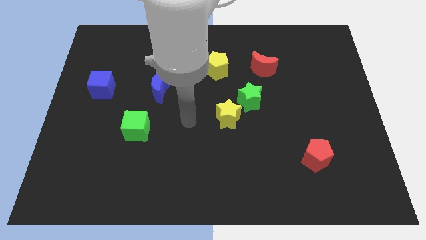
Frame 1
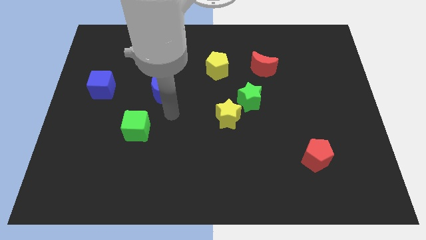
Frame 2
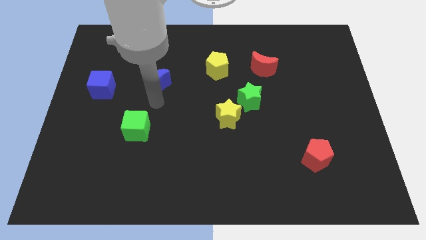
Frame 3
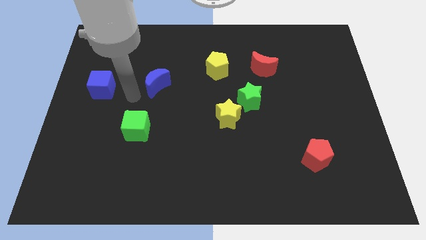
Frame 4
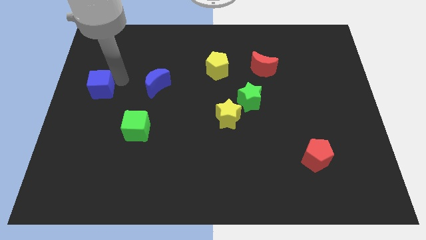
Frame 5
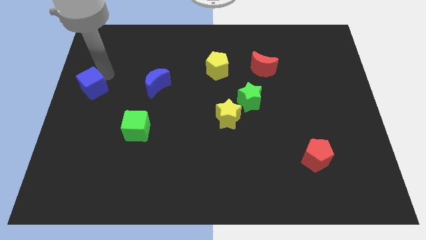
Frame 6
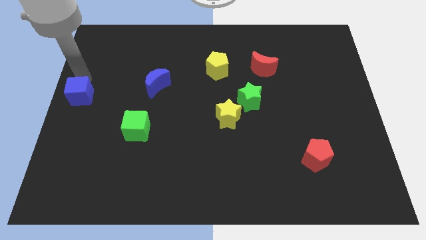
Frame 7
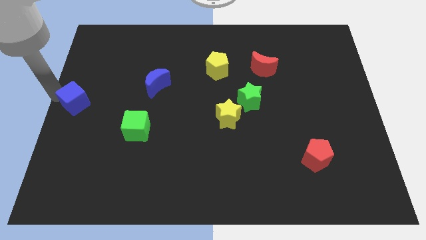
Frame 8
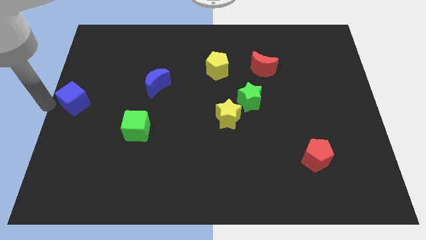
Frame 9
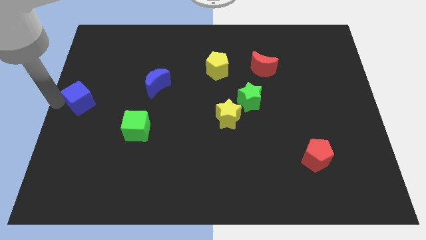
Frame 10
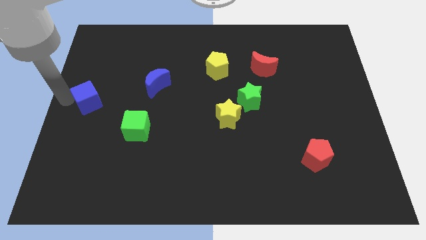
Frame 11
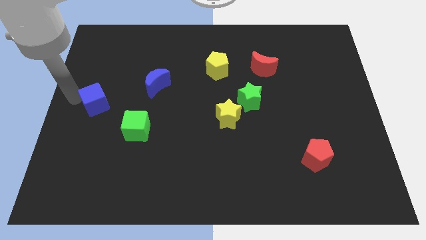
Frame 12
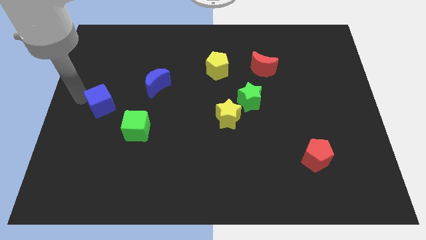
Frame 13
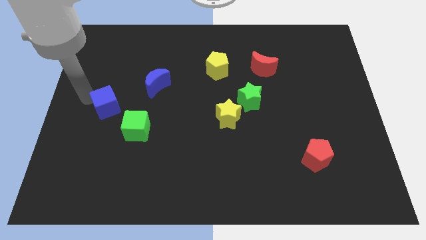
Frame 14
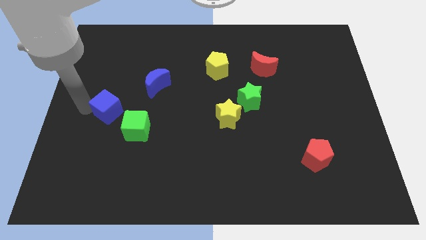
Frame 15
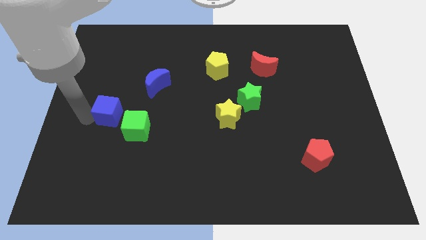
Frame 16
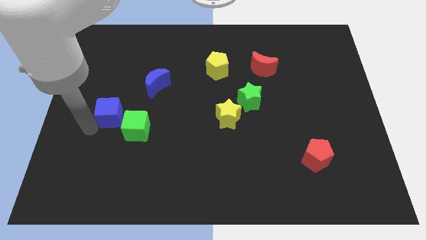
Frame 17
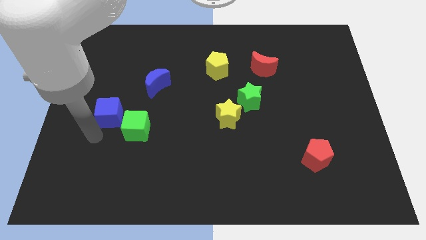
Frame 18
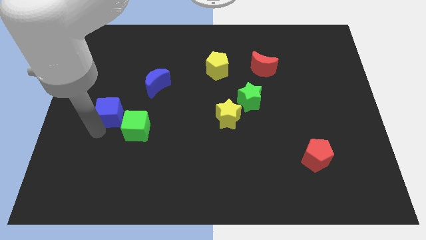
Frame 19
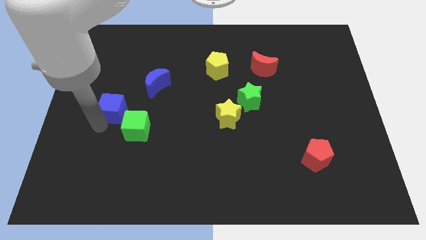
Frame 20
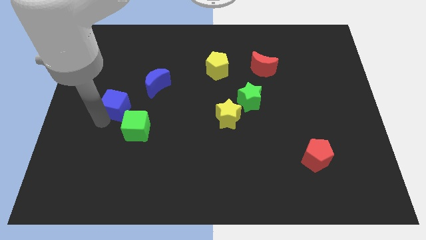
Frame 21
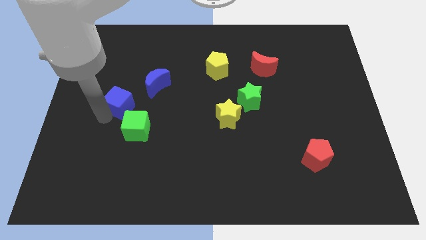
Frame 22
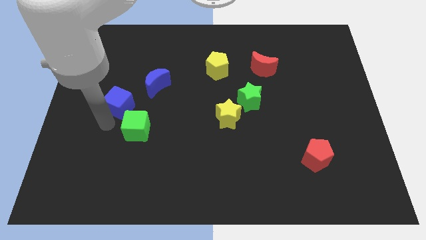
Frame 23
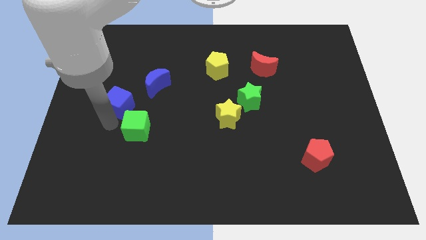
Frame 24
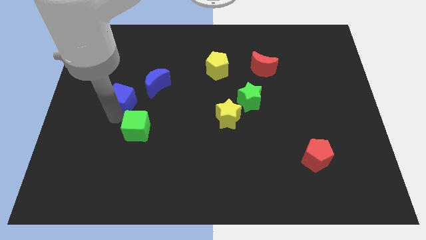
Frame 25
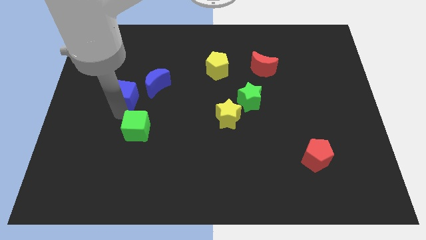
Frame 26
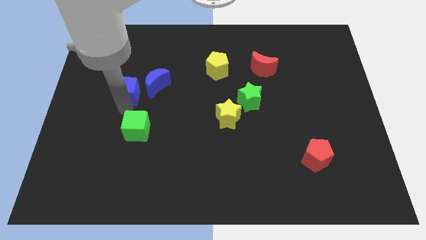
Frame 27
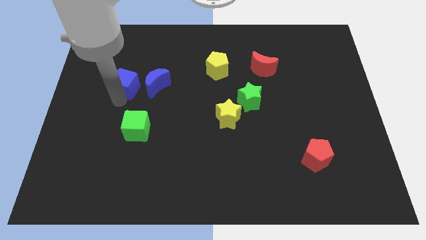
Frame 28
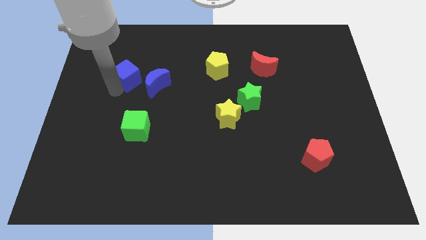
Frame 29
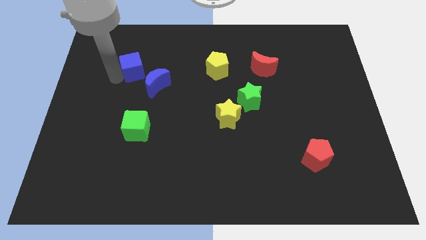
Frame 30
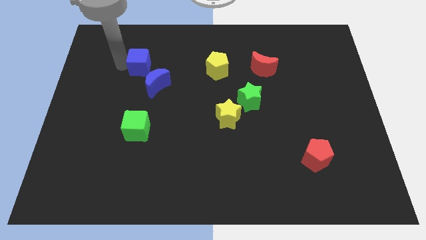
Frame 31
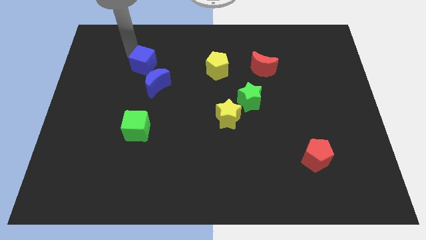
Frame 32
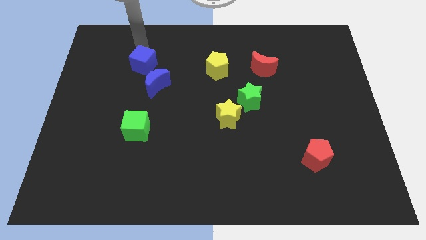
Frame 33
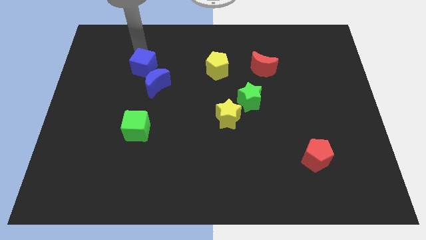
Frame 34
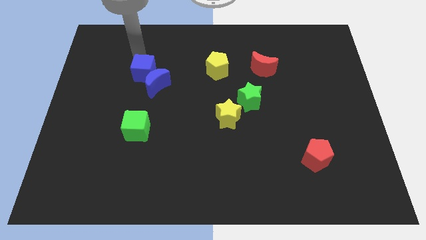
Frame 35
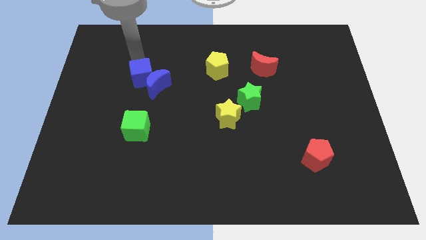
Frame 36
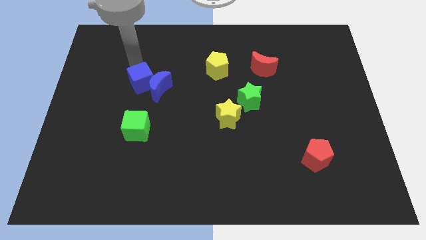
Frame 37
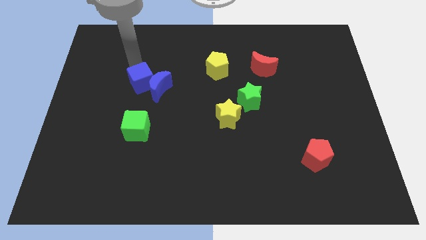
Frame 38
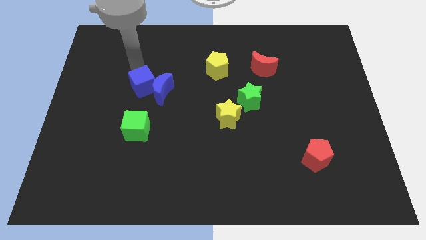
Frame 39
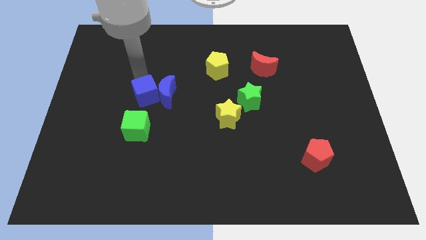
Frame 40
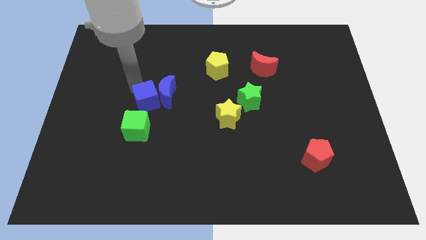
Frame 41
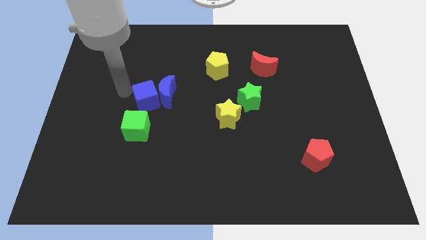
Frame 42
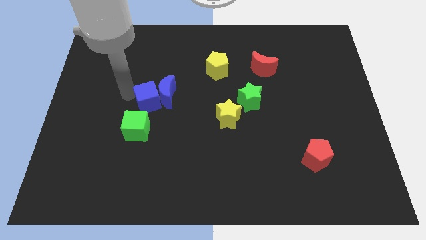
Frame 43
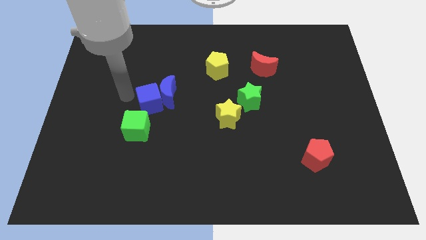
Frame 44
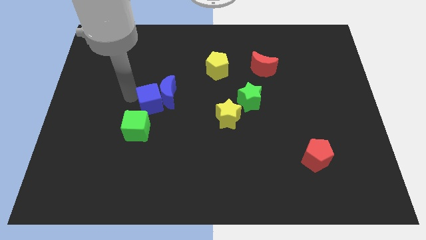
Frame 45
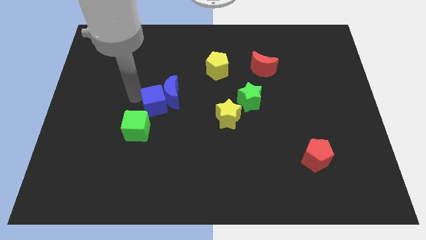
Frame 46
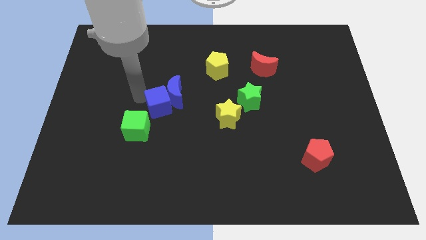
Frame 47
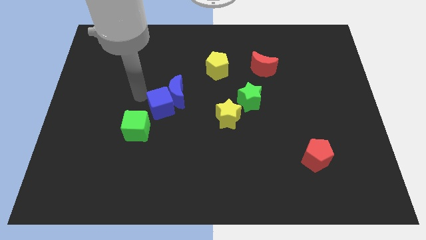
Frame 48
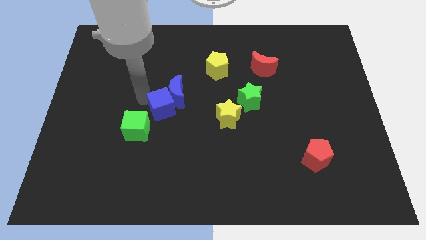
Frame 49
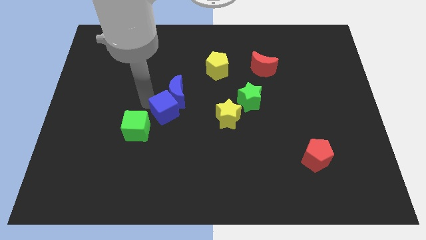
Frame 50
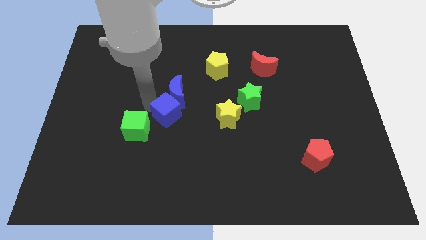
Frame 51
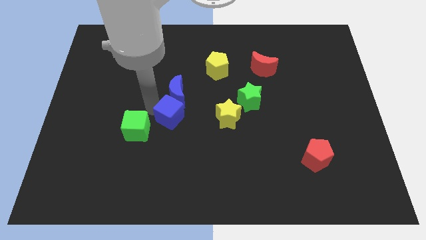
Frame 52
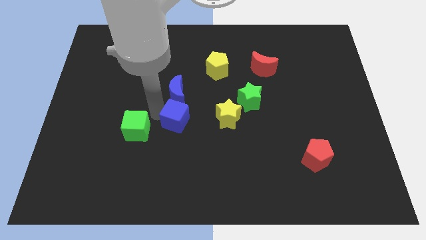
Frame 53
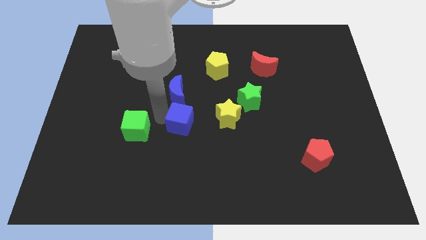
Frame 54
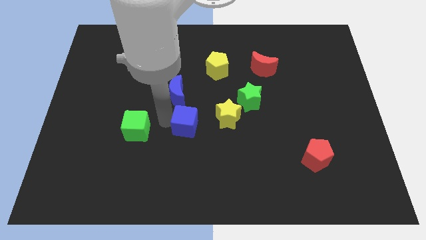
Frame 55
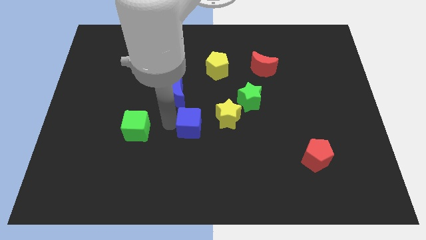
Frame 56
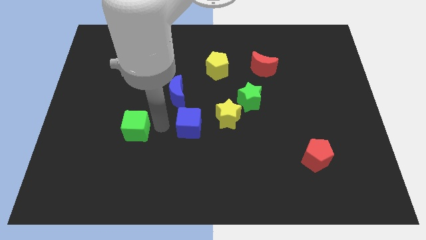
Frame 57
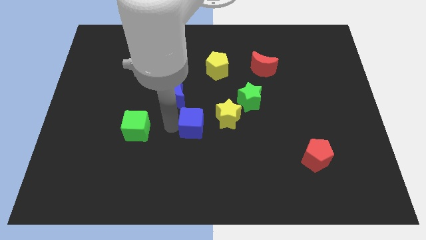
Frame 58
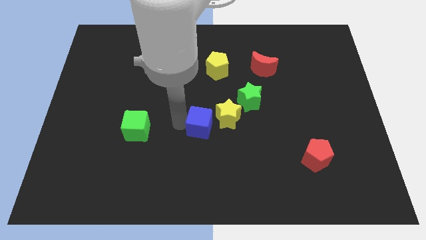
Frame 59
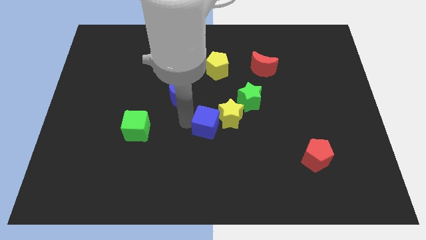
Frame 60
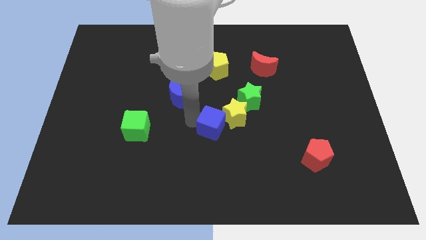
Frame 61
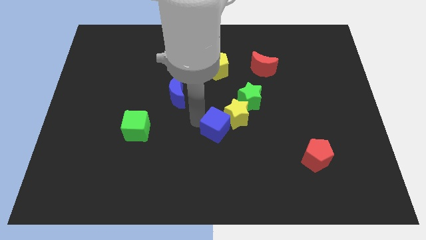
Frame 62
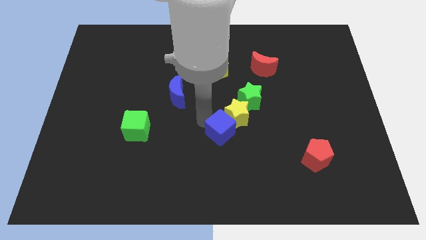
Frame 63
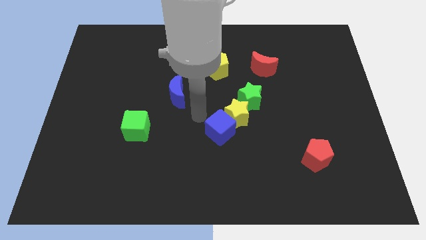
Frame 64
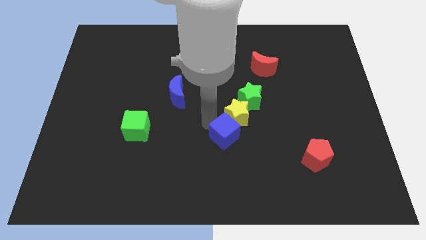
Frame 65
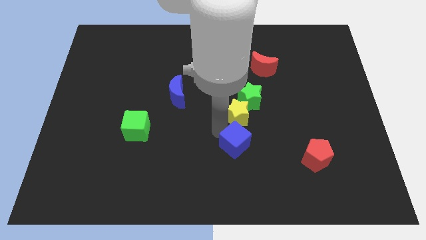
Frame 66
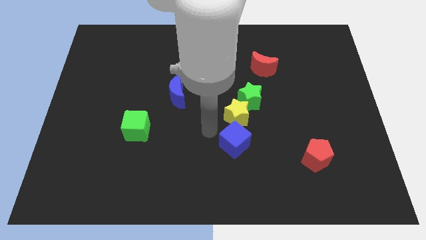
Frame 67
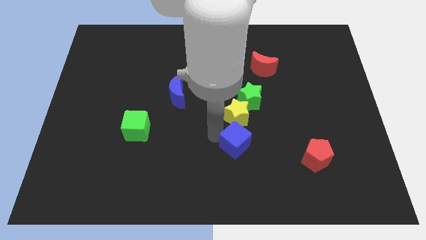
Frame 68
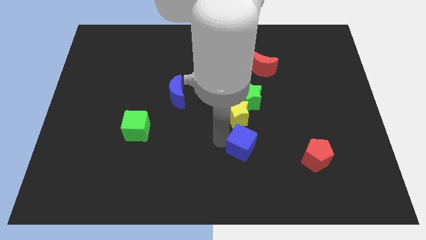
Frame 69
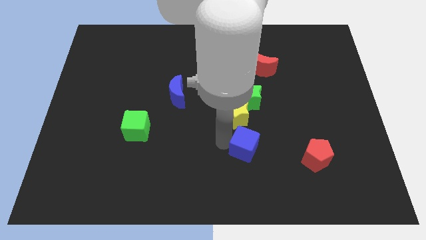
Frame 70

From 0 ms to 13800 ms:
move the blue cube to the left of the red pentagon

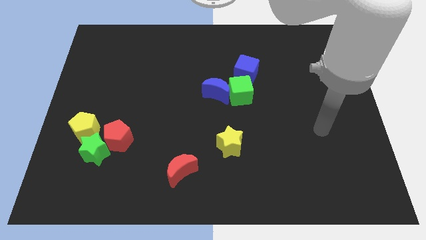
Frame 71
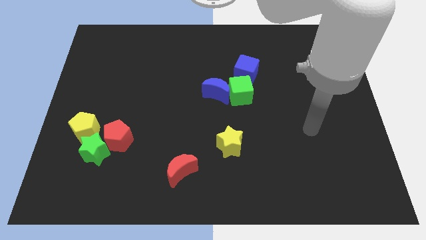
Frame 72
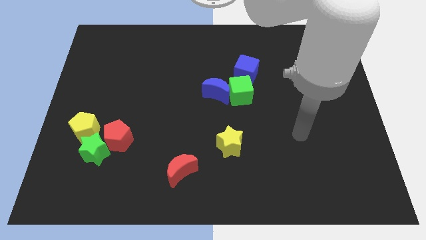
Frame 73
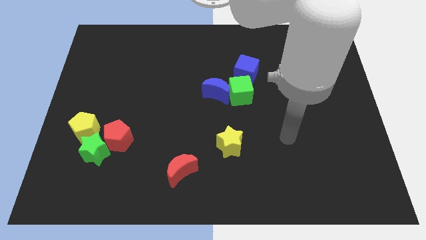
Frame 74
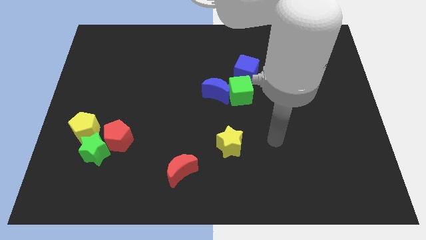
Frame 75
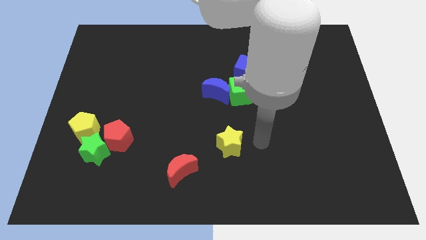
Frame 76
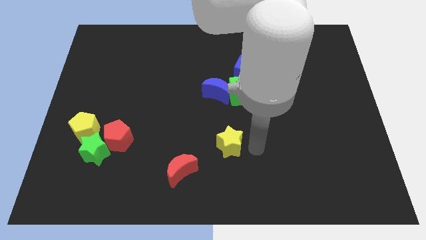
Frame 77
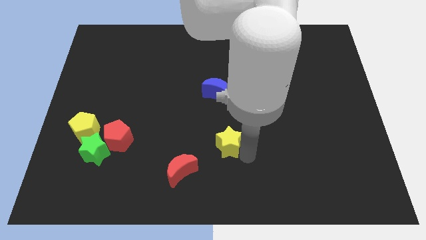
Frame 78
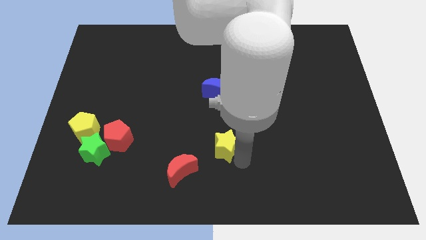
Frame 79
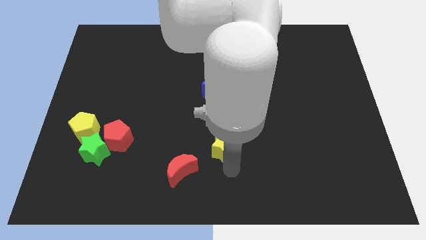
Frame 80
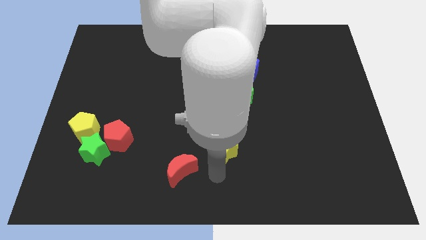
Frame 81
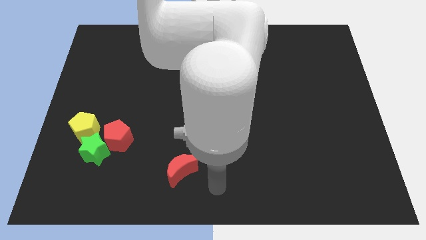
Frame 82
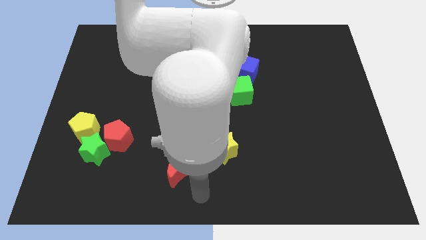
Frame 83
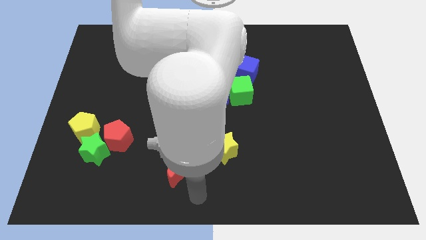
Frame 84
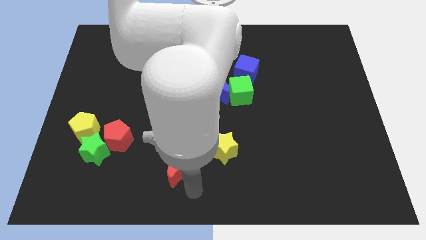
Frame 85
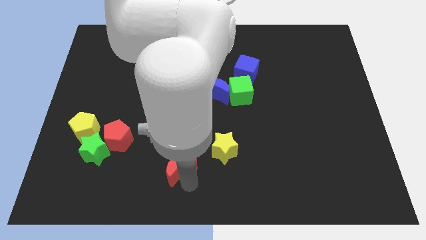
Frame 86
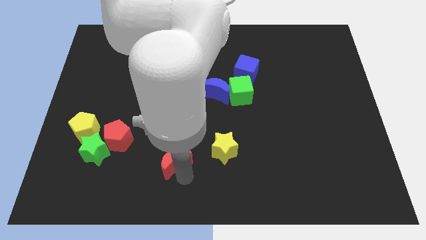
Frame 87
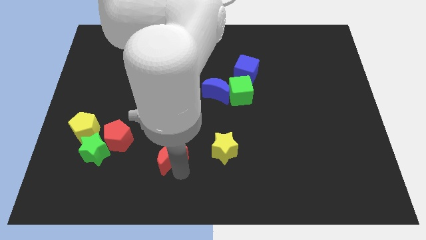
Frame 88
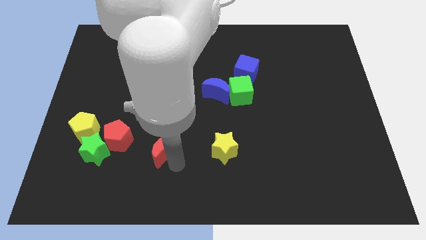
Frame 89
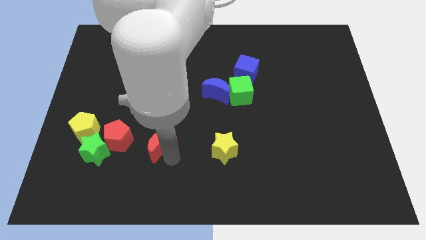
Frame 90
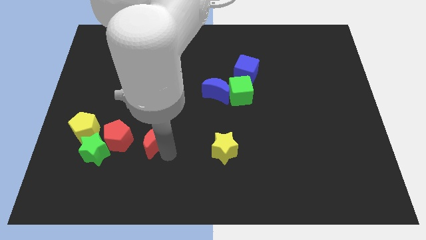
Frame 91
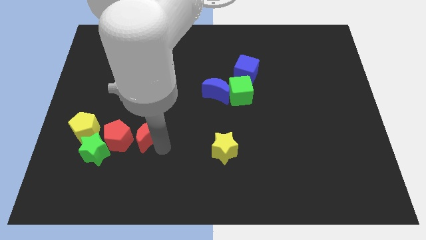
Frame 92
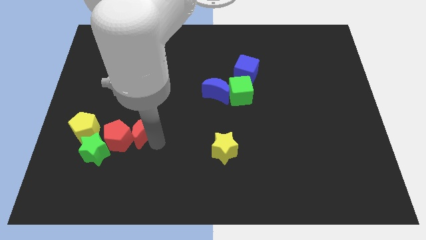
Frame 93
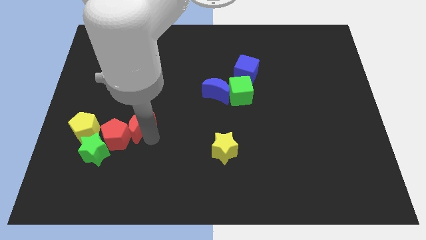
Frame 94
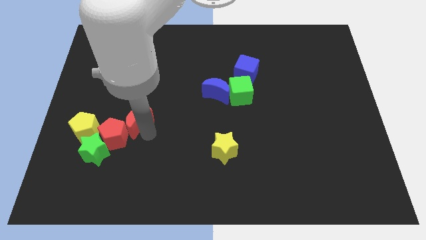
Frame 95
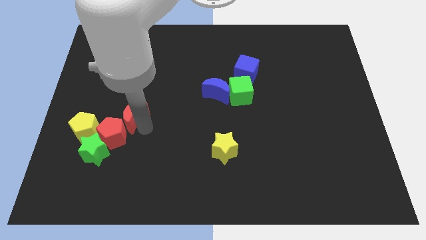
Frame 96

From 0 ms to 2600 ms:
slide the red moon diagonally up and to the right of the yellow pentagon
